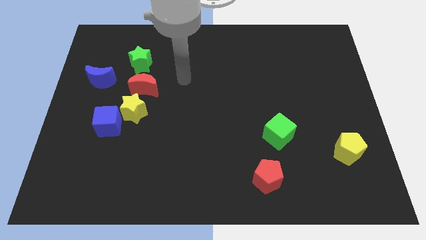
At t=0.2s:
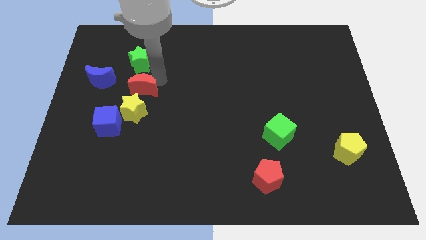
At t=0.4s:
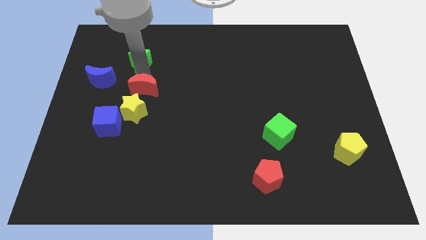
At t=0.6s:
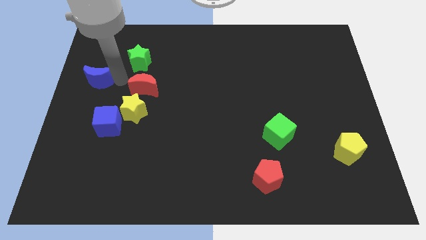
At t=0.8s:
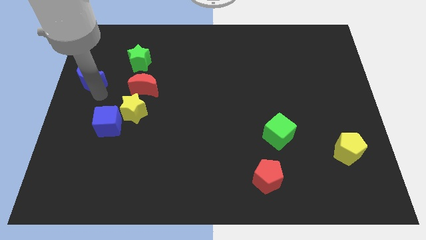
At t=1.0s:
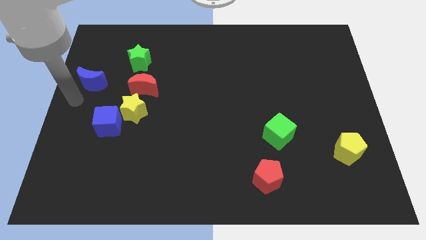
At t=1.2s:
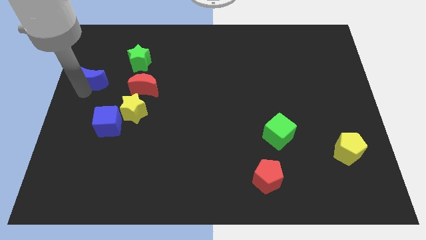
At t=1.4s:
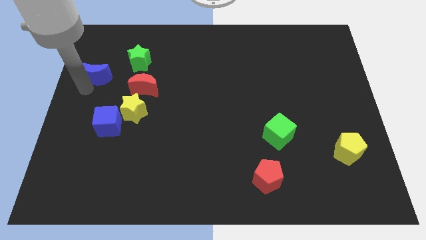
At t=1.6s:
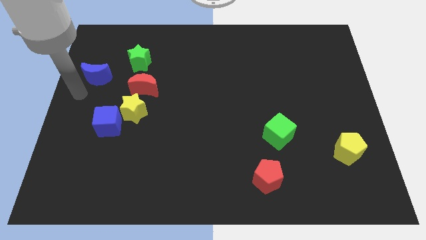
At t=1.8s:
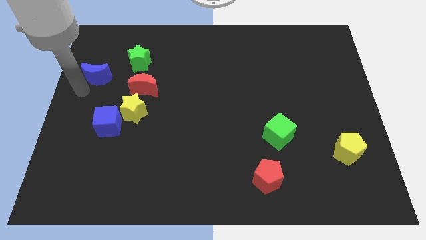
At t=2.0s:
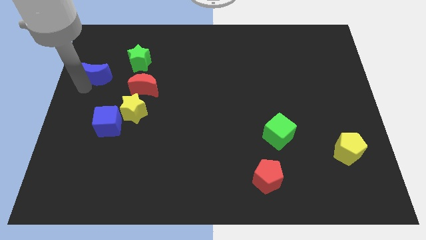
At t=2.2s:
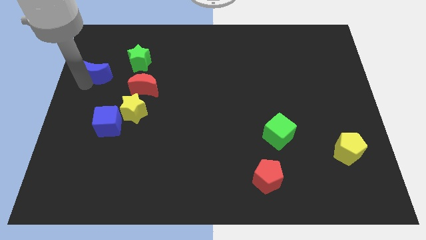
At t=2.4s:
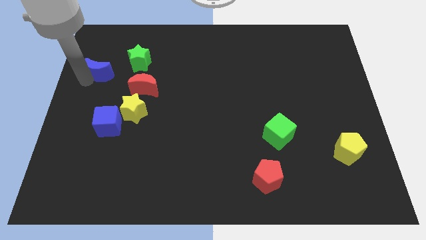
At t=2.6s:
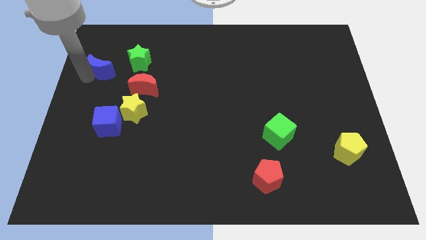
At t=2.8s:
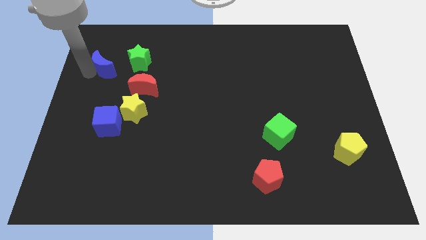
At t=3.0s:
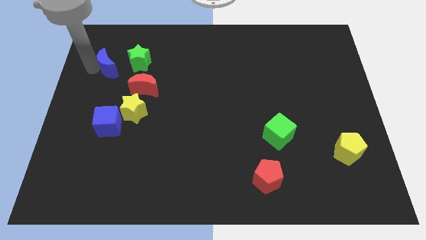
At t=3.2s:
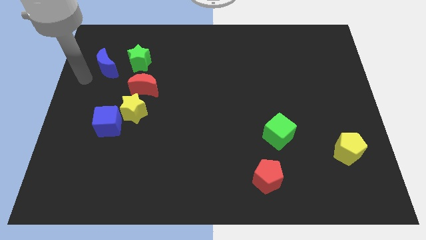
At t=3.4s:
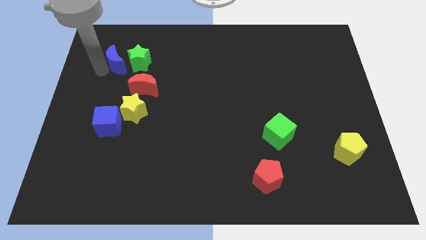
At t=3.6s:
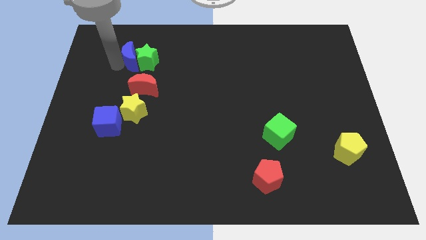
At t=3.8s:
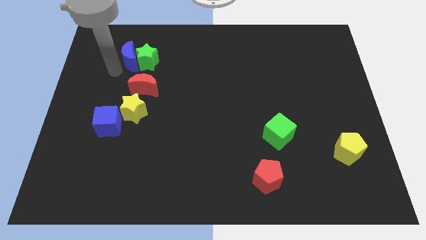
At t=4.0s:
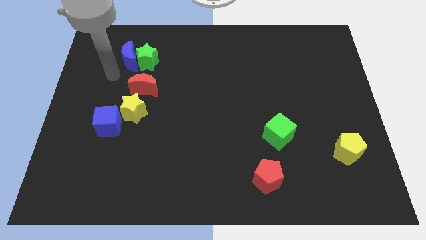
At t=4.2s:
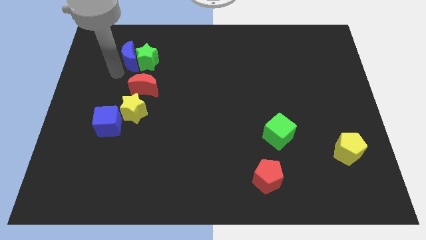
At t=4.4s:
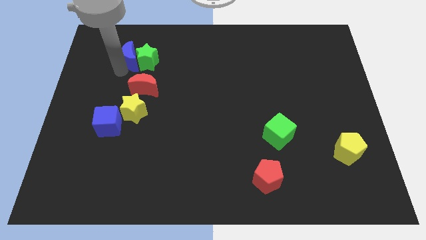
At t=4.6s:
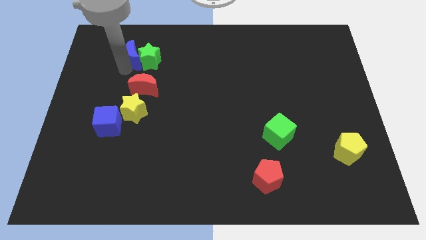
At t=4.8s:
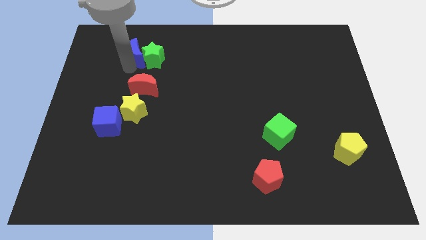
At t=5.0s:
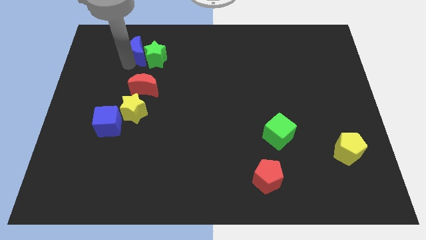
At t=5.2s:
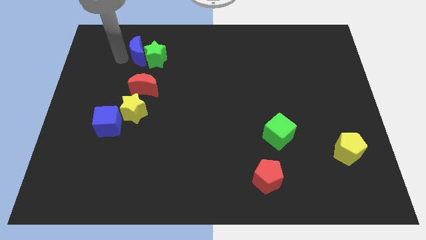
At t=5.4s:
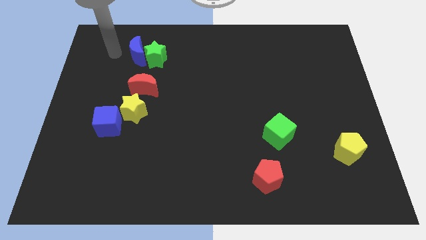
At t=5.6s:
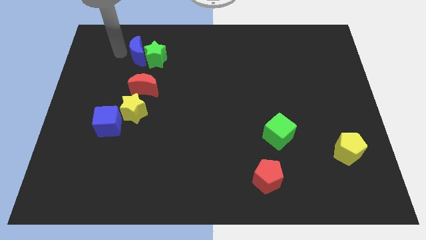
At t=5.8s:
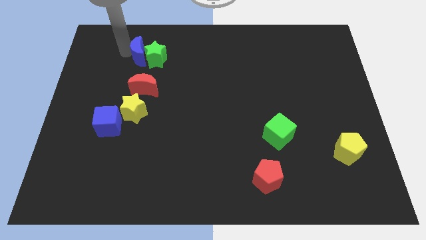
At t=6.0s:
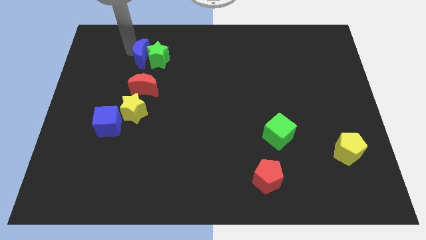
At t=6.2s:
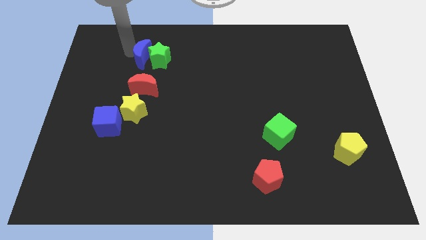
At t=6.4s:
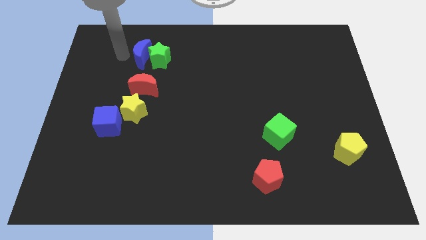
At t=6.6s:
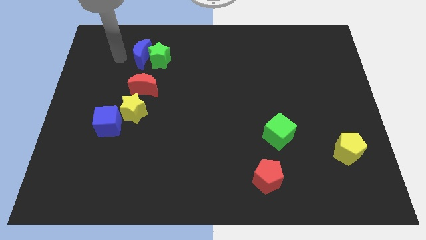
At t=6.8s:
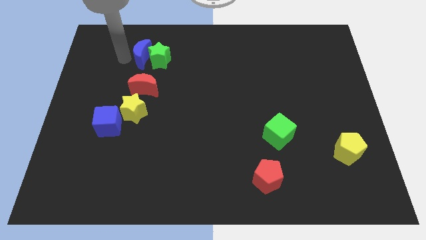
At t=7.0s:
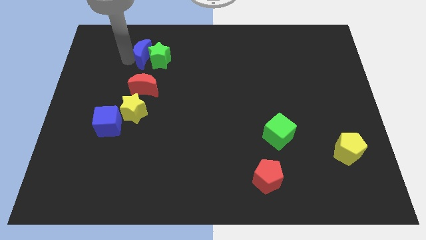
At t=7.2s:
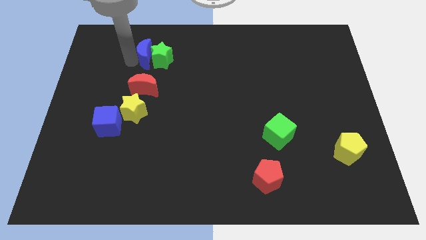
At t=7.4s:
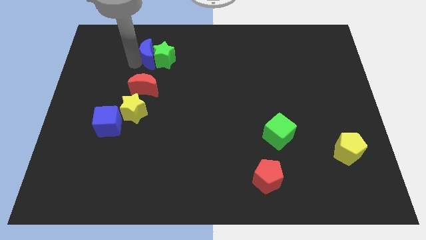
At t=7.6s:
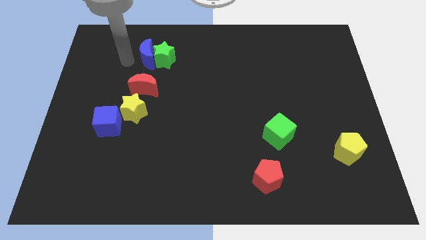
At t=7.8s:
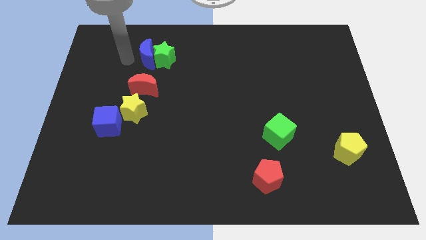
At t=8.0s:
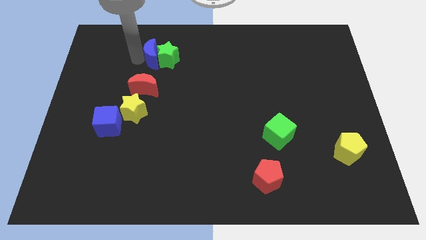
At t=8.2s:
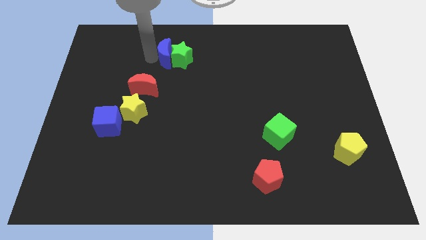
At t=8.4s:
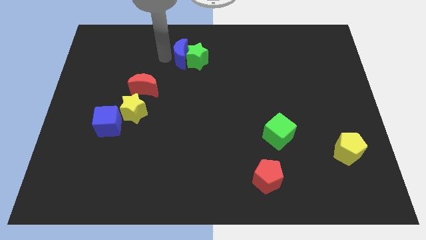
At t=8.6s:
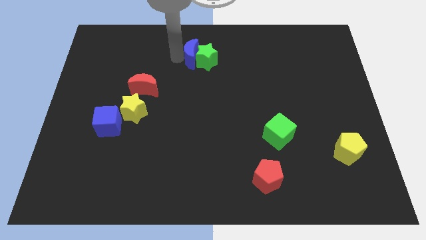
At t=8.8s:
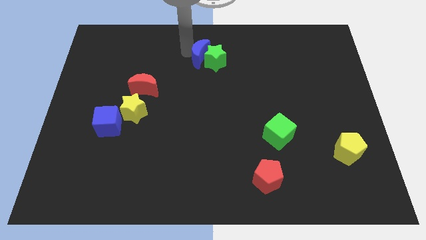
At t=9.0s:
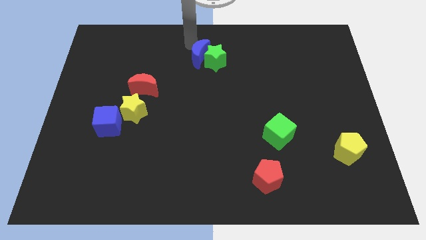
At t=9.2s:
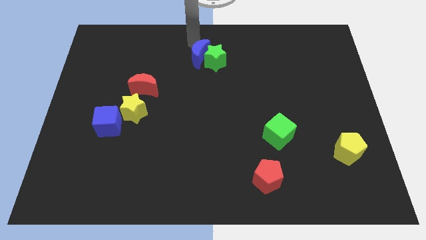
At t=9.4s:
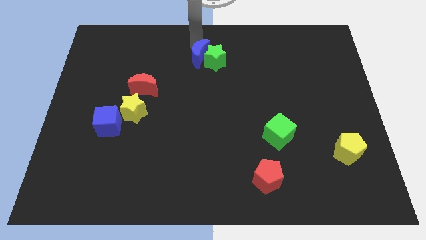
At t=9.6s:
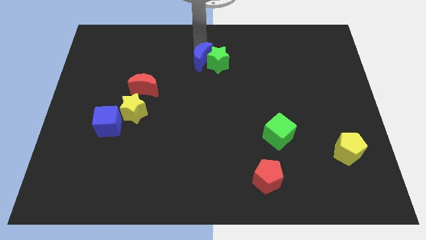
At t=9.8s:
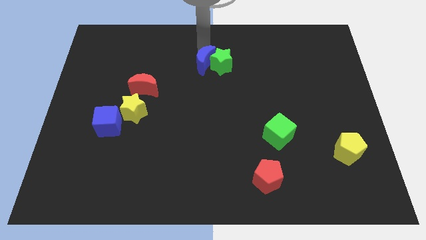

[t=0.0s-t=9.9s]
push the blue moon to the middle of the board

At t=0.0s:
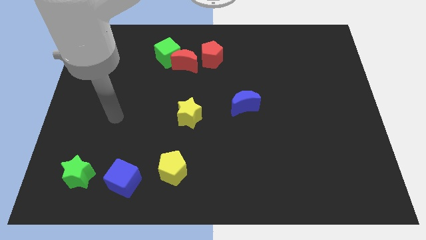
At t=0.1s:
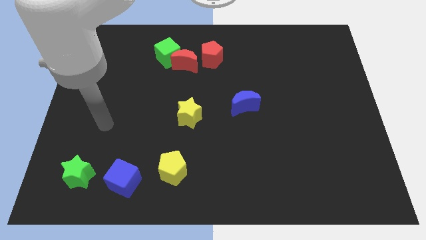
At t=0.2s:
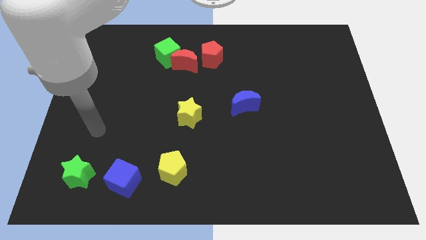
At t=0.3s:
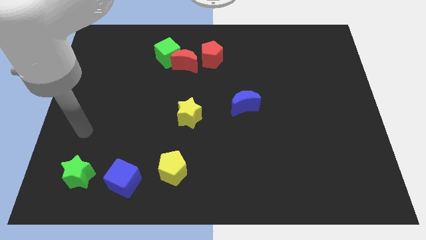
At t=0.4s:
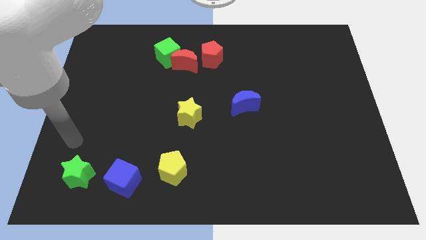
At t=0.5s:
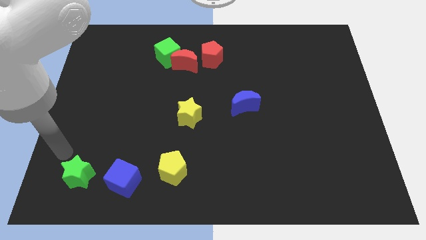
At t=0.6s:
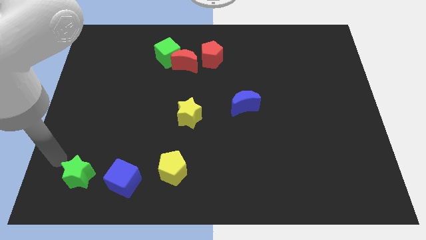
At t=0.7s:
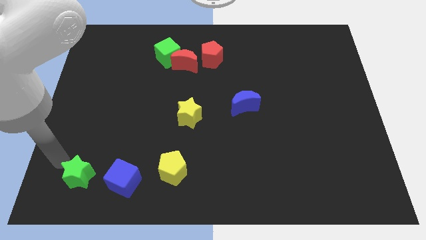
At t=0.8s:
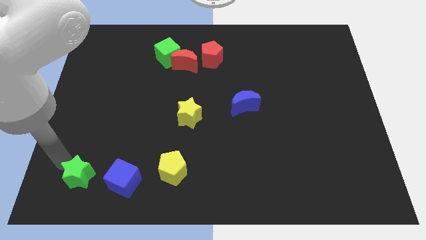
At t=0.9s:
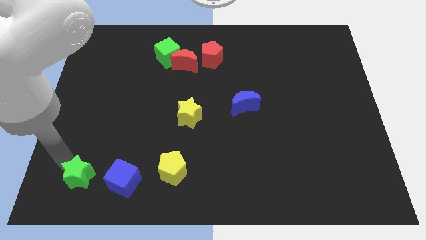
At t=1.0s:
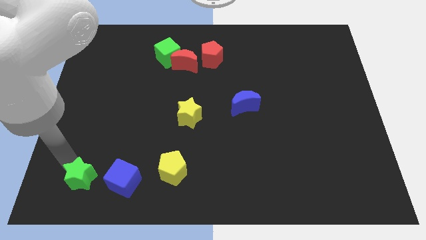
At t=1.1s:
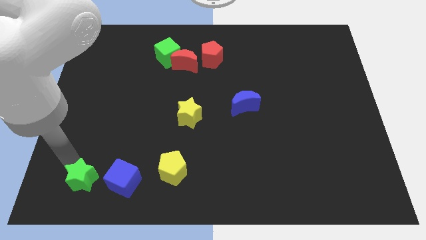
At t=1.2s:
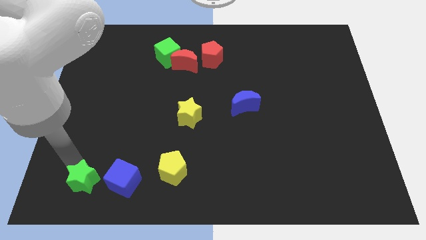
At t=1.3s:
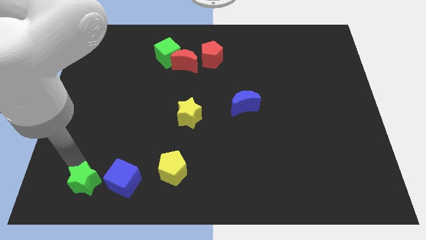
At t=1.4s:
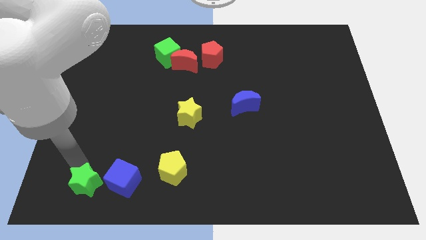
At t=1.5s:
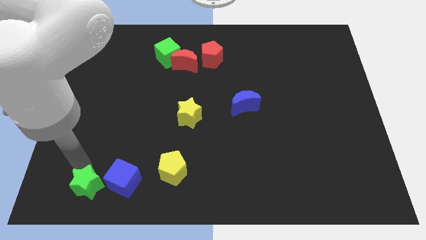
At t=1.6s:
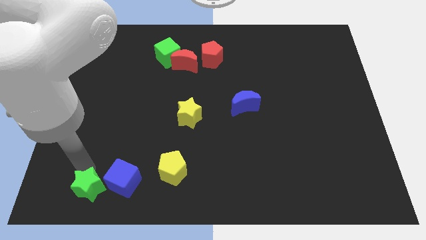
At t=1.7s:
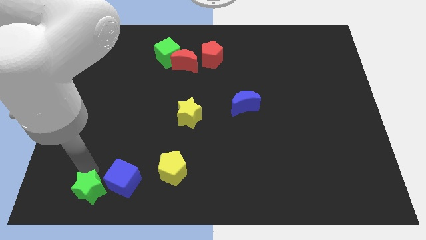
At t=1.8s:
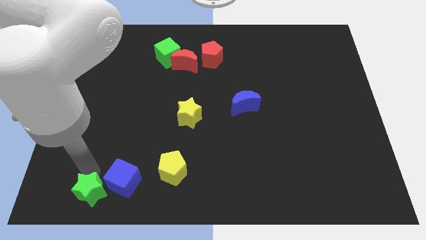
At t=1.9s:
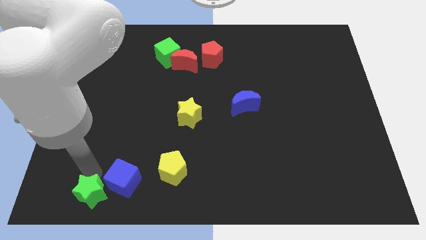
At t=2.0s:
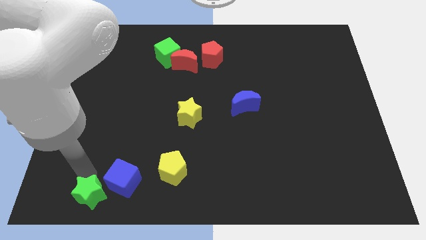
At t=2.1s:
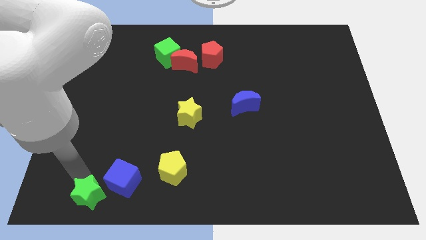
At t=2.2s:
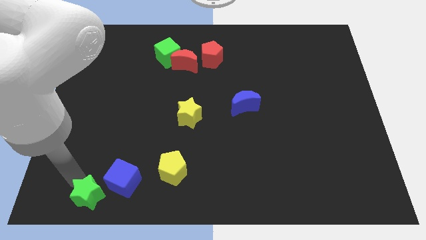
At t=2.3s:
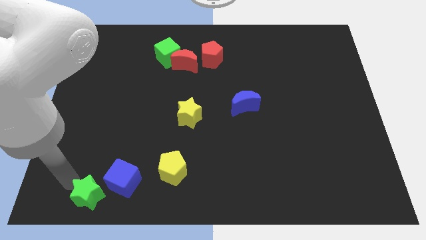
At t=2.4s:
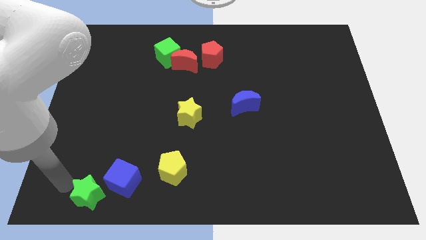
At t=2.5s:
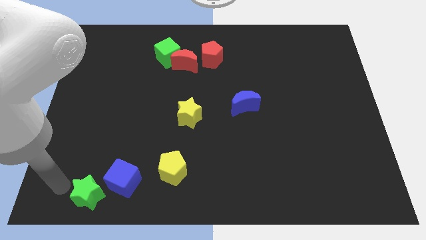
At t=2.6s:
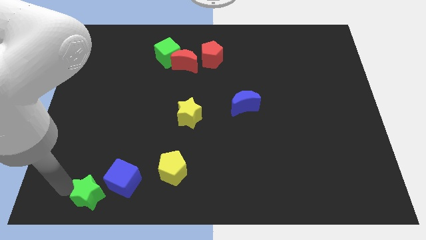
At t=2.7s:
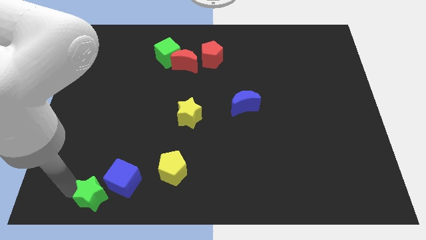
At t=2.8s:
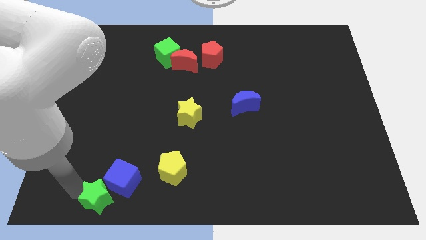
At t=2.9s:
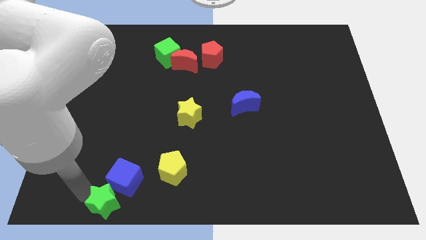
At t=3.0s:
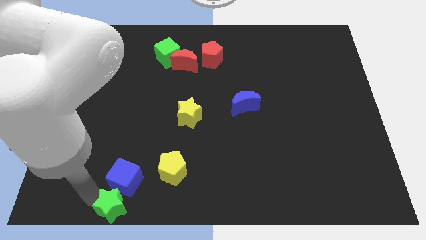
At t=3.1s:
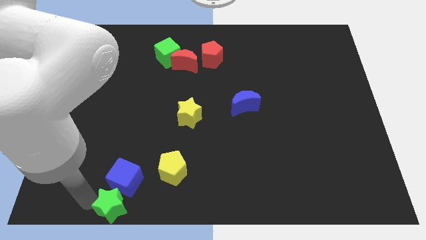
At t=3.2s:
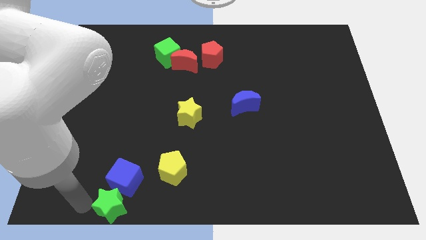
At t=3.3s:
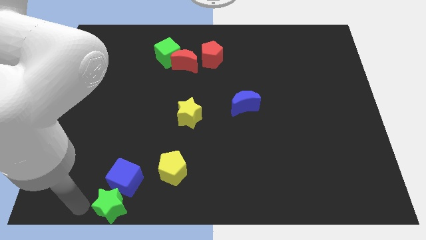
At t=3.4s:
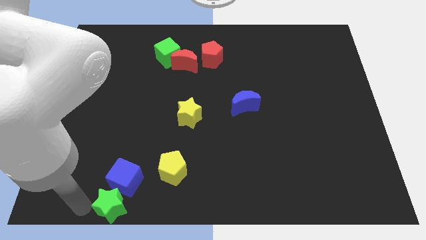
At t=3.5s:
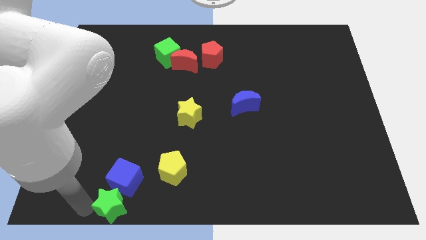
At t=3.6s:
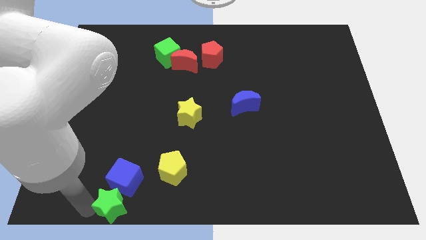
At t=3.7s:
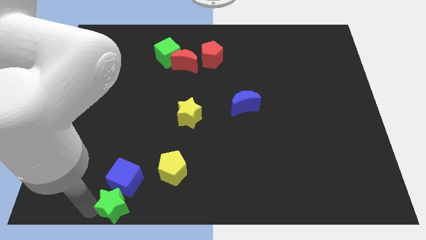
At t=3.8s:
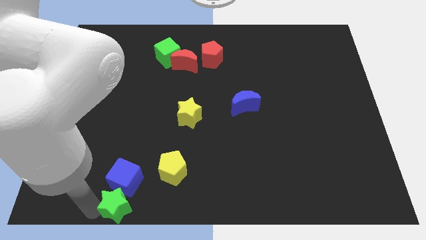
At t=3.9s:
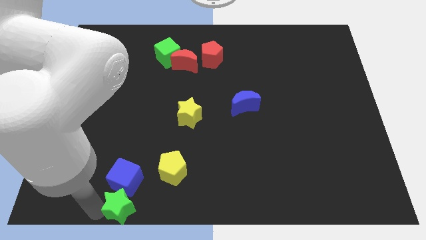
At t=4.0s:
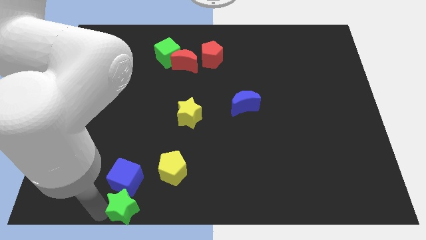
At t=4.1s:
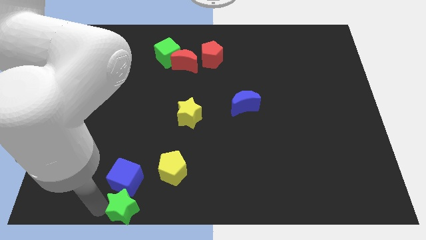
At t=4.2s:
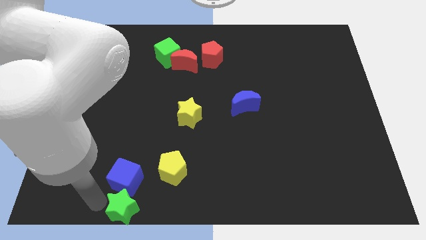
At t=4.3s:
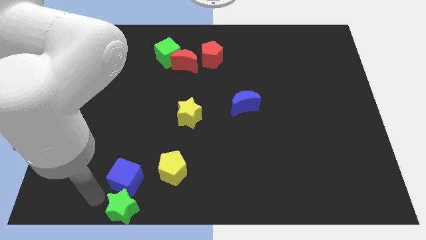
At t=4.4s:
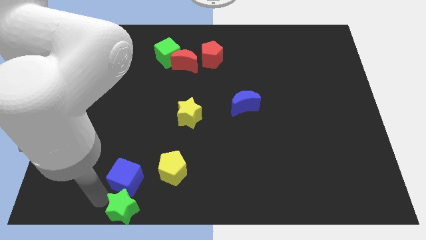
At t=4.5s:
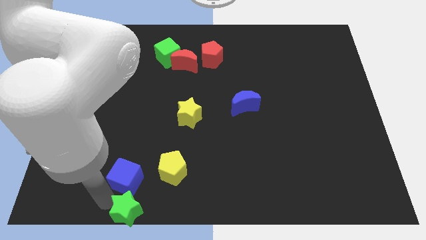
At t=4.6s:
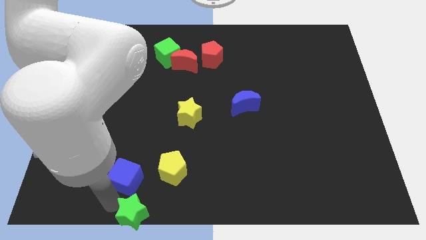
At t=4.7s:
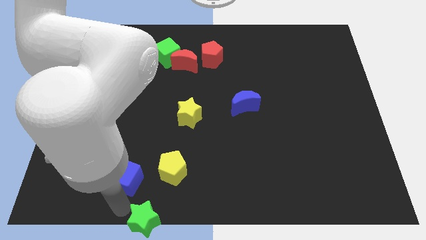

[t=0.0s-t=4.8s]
slide the green star to the bottom side
